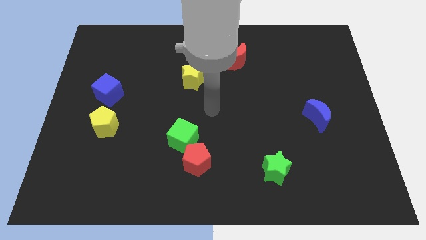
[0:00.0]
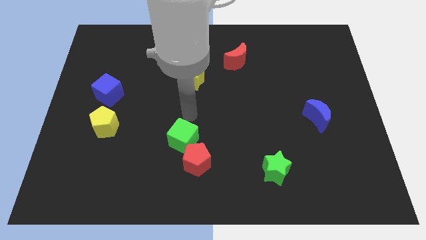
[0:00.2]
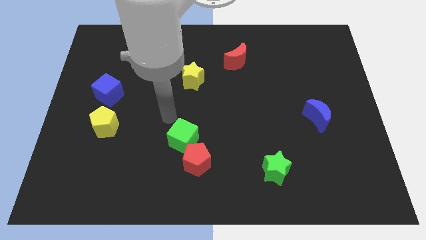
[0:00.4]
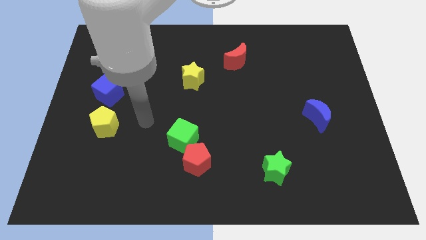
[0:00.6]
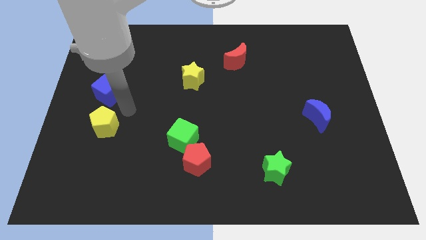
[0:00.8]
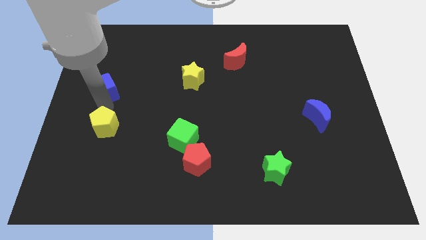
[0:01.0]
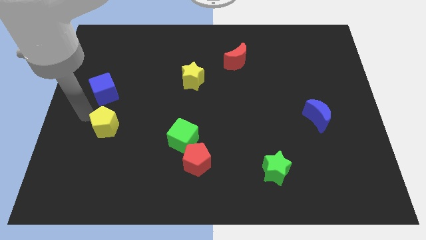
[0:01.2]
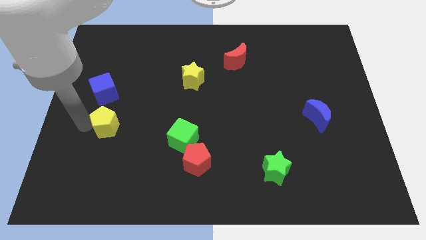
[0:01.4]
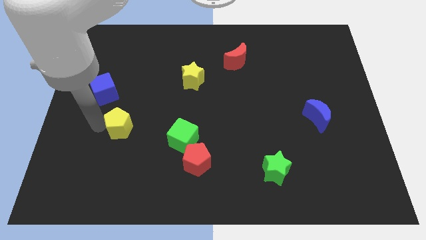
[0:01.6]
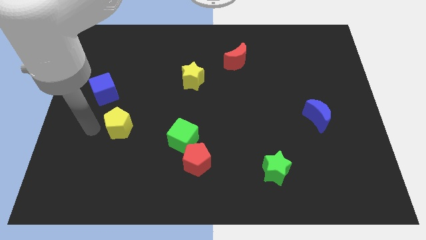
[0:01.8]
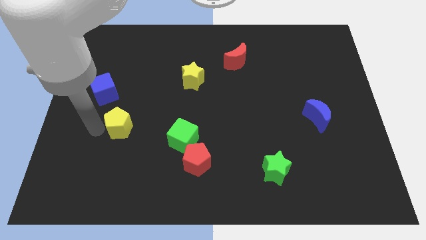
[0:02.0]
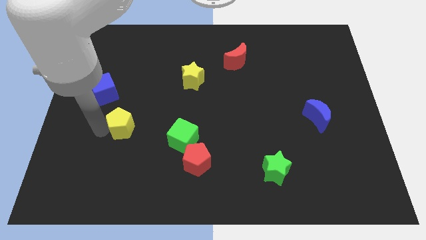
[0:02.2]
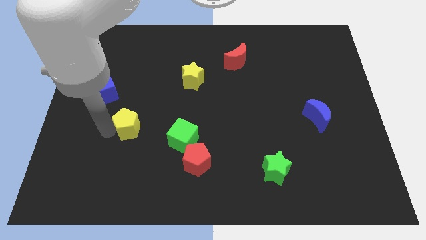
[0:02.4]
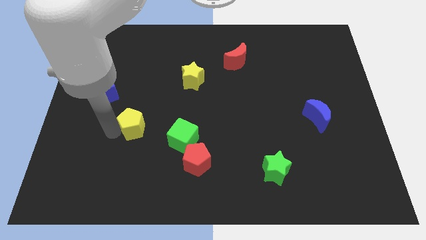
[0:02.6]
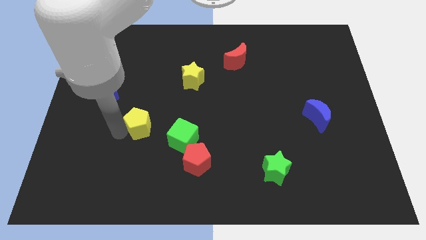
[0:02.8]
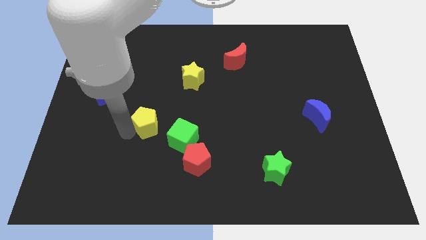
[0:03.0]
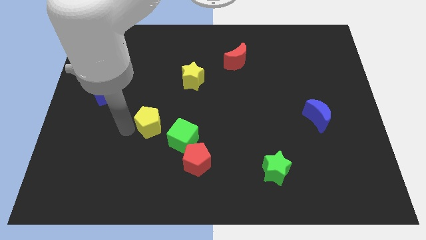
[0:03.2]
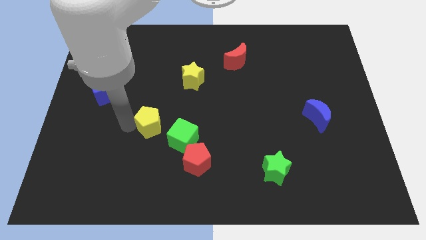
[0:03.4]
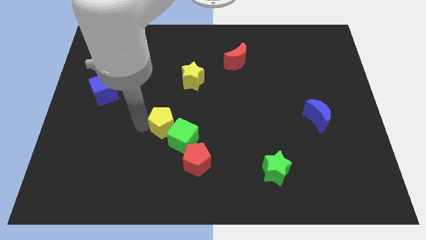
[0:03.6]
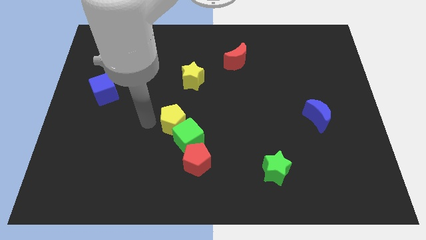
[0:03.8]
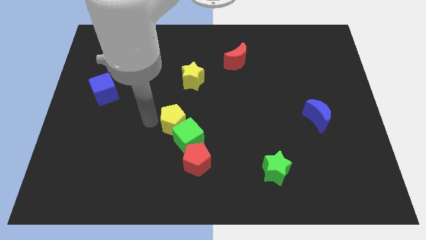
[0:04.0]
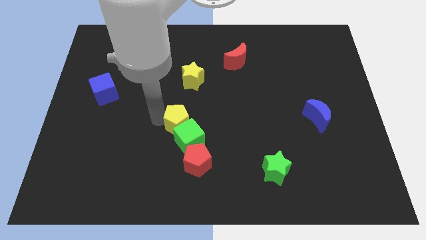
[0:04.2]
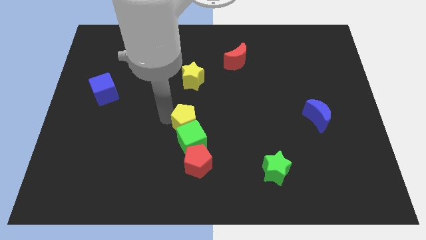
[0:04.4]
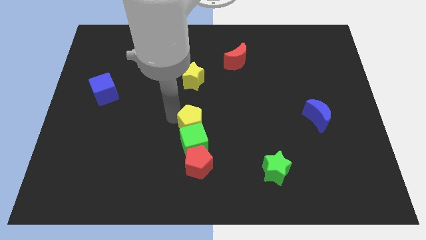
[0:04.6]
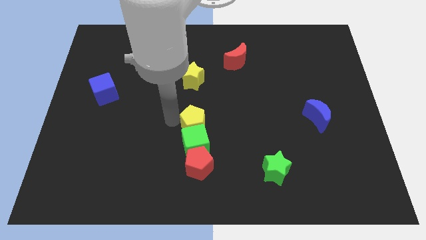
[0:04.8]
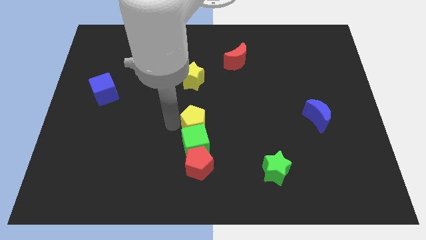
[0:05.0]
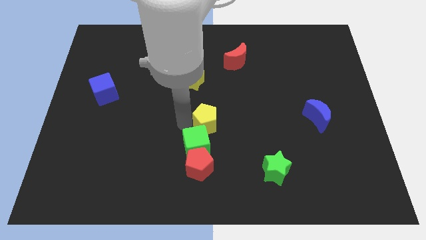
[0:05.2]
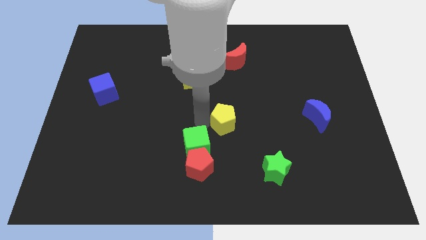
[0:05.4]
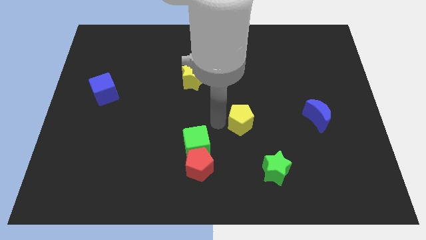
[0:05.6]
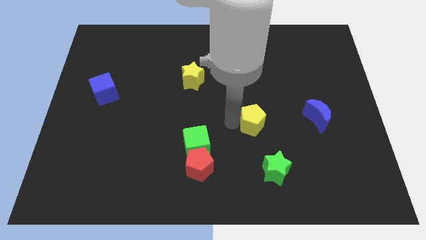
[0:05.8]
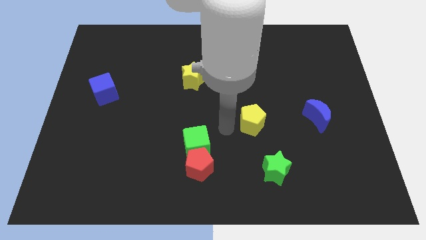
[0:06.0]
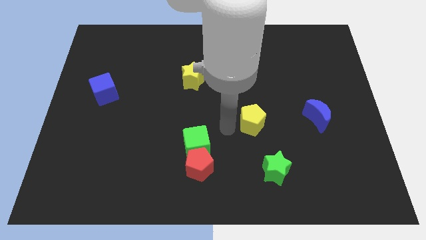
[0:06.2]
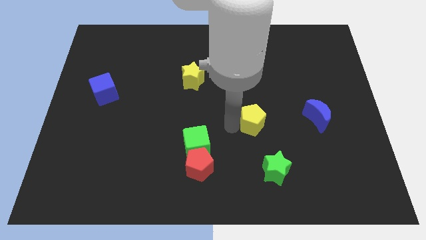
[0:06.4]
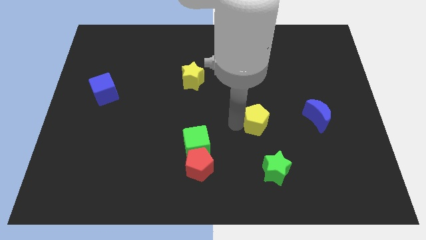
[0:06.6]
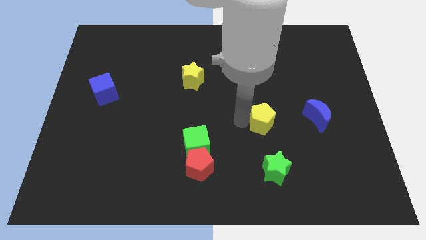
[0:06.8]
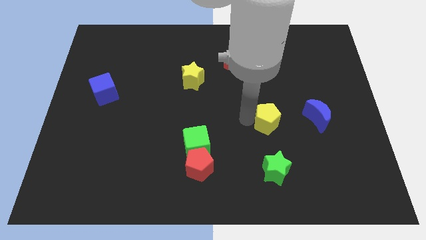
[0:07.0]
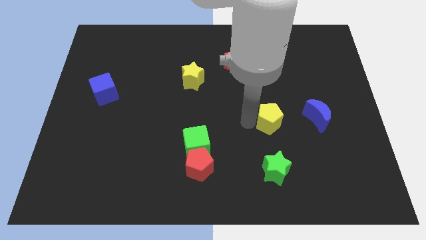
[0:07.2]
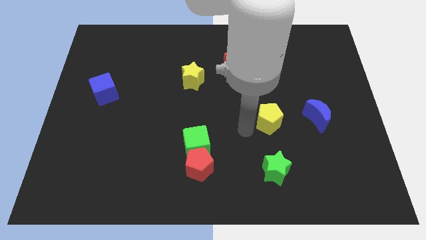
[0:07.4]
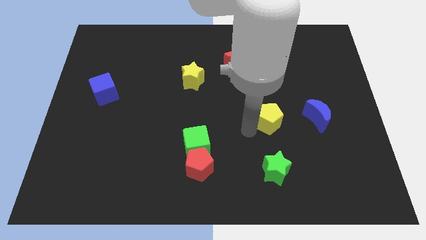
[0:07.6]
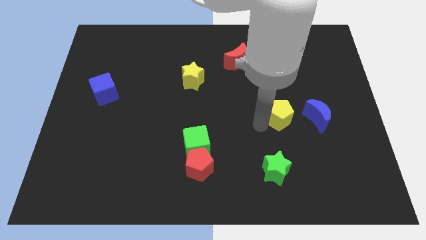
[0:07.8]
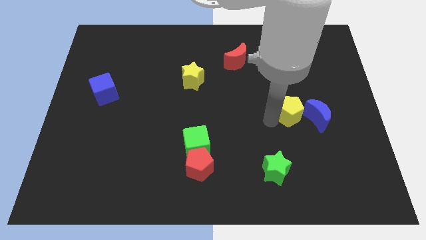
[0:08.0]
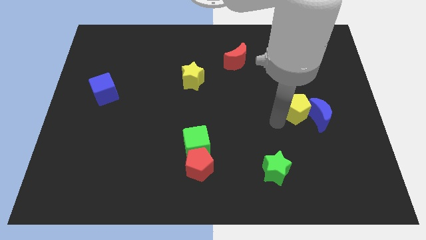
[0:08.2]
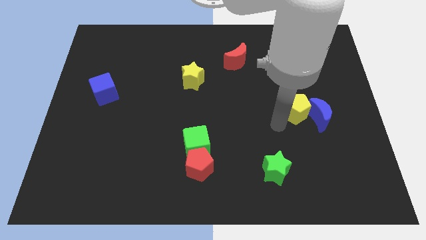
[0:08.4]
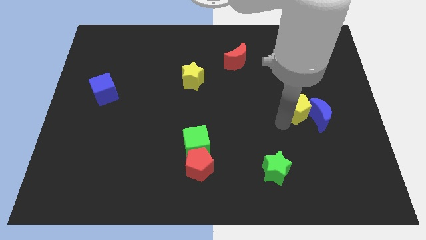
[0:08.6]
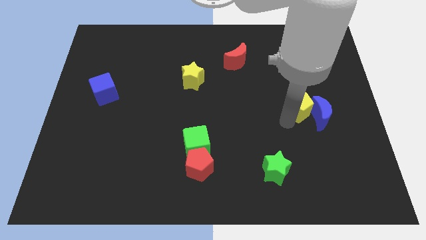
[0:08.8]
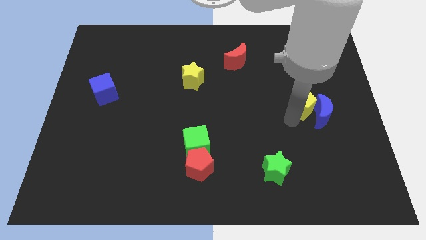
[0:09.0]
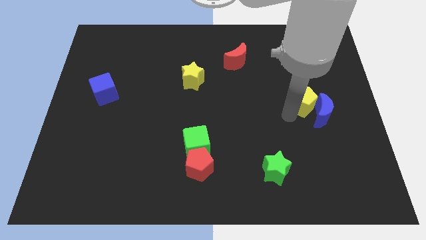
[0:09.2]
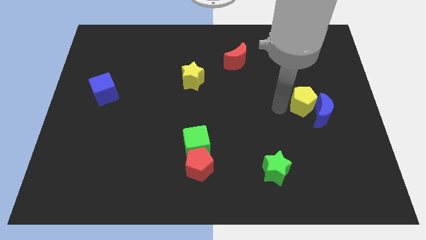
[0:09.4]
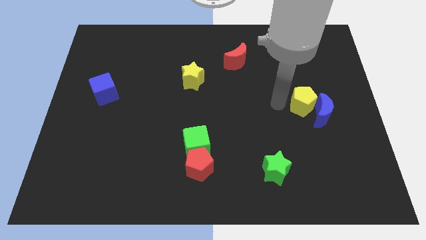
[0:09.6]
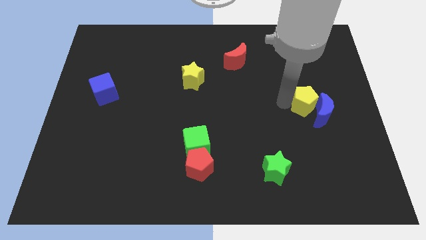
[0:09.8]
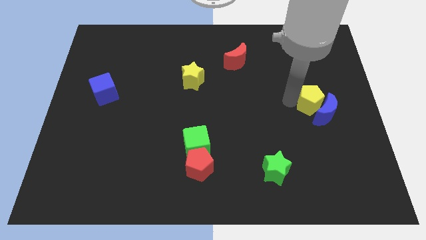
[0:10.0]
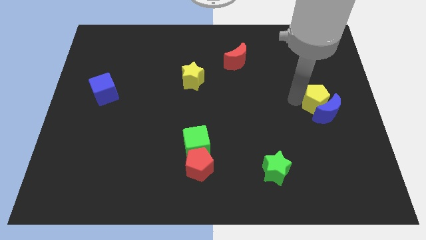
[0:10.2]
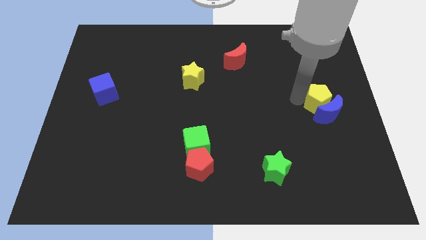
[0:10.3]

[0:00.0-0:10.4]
push the yellow pentagon to the center right

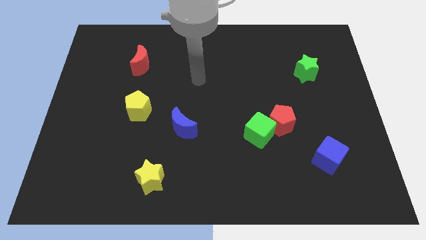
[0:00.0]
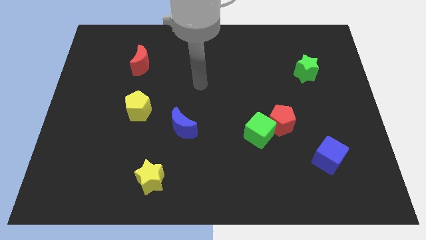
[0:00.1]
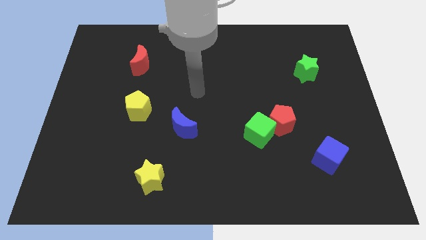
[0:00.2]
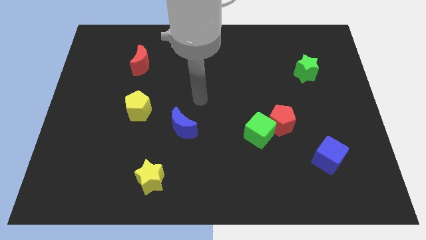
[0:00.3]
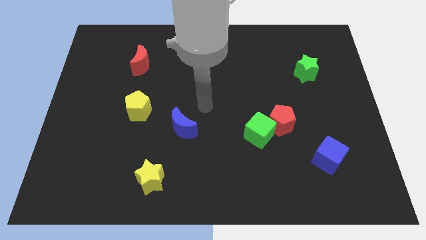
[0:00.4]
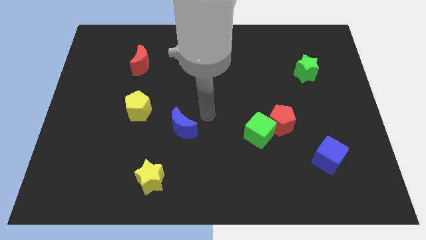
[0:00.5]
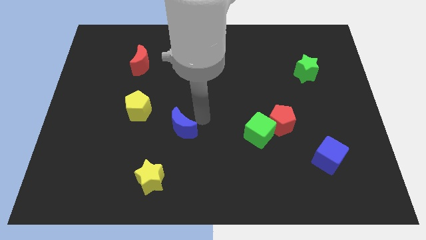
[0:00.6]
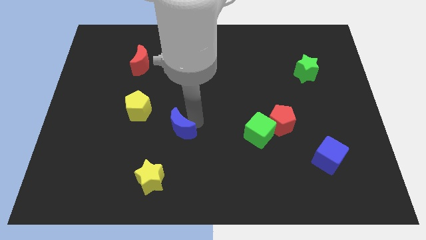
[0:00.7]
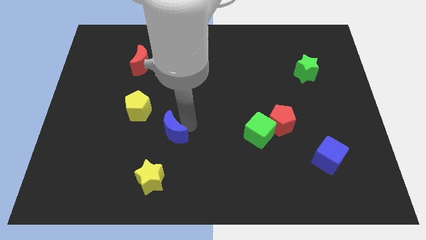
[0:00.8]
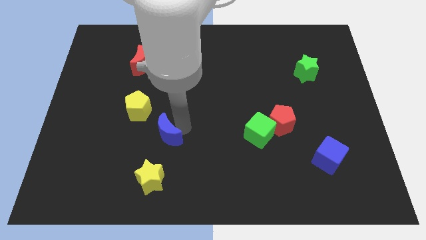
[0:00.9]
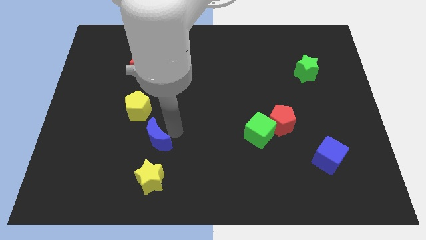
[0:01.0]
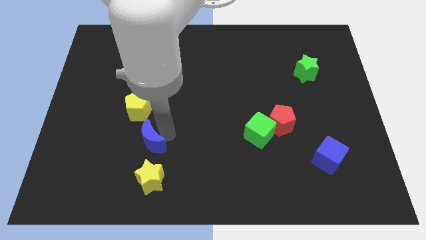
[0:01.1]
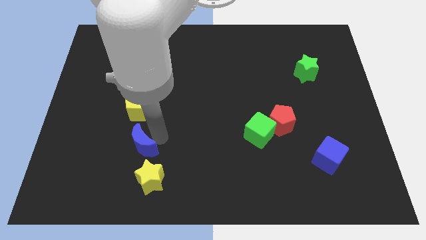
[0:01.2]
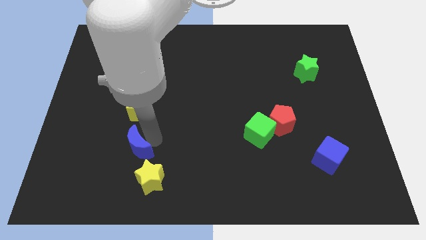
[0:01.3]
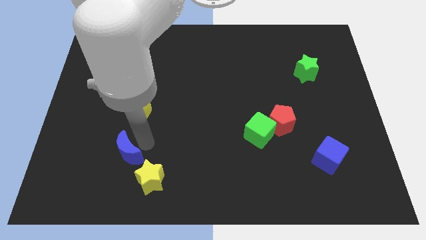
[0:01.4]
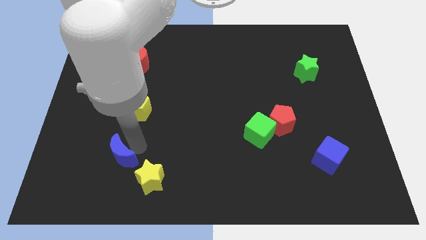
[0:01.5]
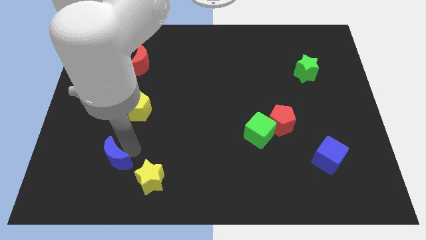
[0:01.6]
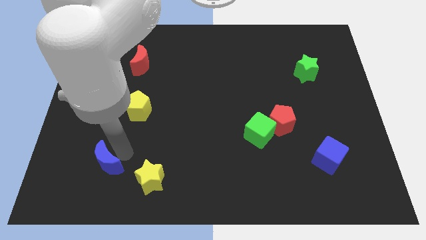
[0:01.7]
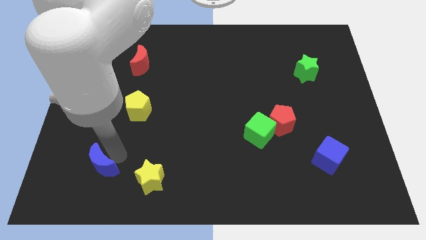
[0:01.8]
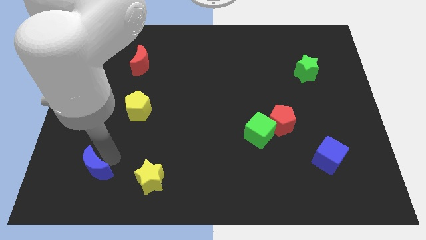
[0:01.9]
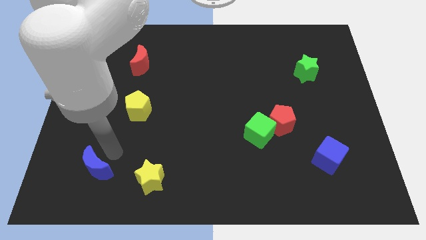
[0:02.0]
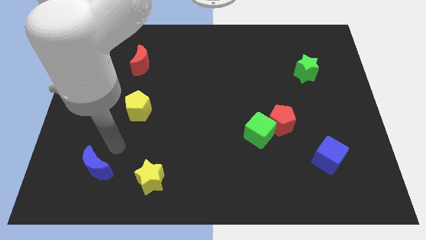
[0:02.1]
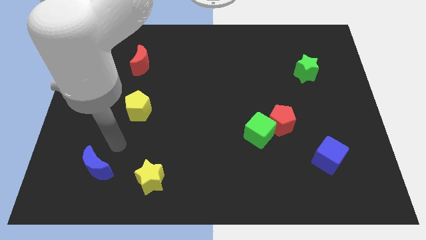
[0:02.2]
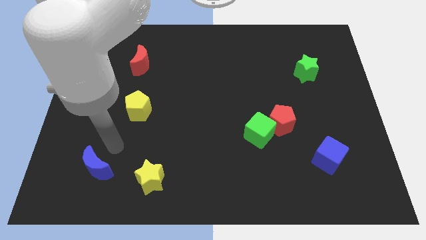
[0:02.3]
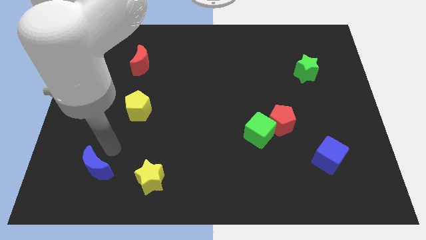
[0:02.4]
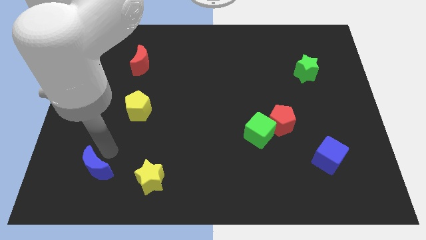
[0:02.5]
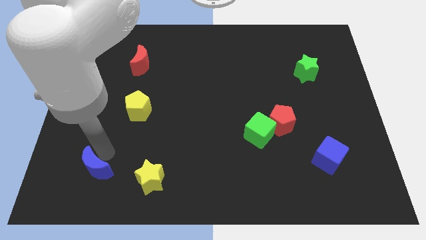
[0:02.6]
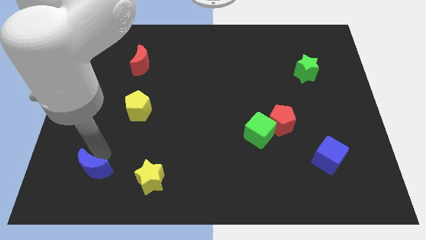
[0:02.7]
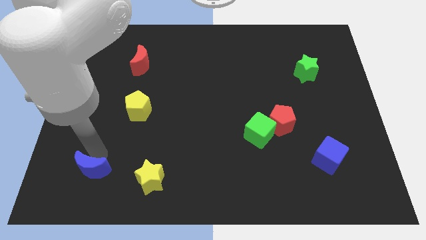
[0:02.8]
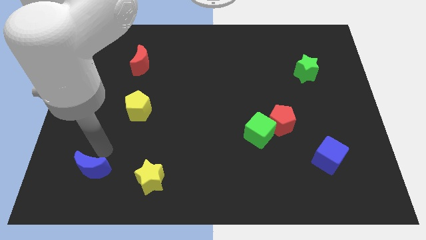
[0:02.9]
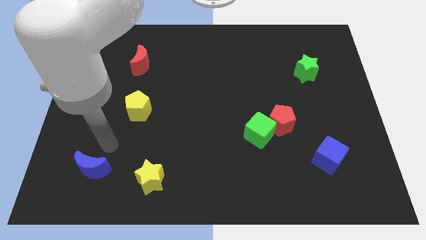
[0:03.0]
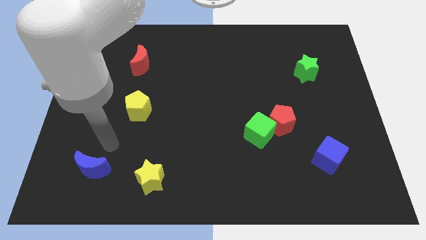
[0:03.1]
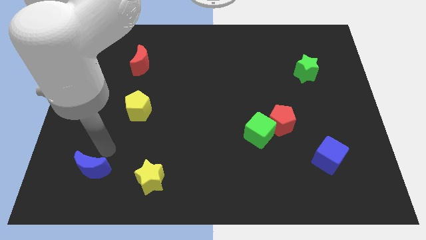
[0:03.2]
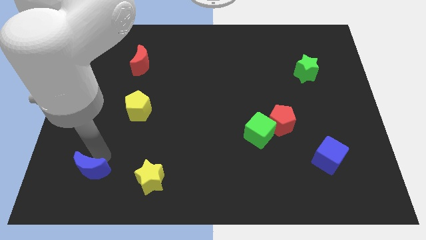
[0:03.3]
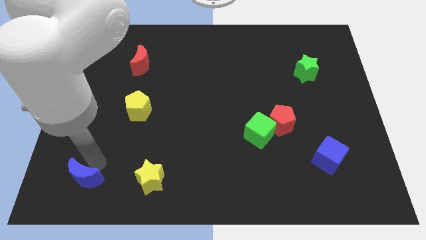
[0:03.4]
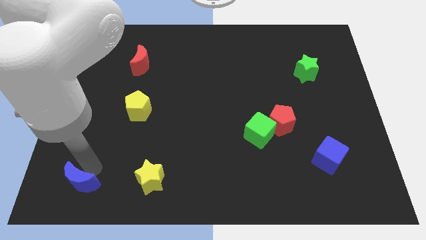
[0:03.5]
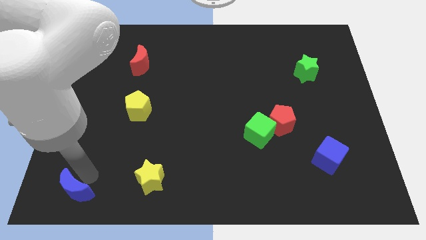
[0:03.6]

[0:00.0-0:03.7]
push the blue moon to the lower left corner
